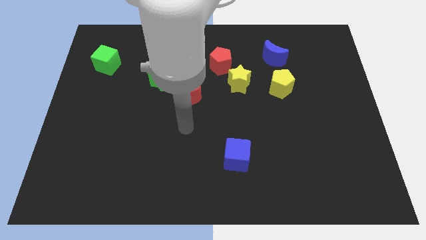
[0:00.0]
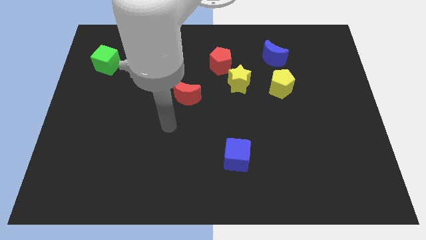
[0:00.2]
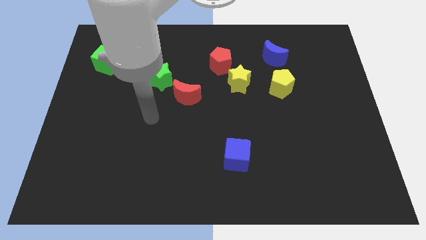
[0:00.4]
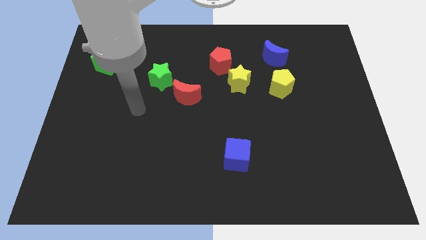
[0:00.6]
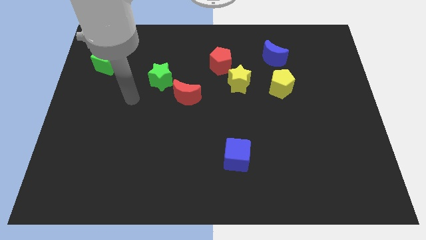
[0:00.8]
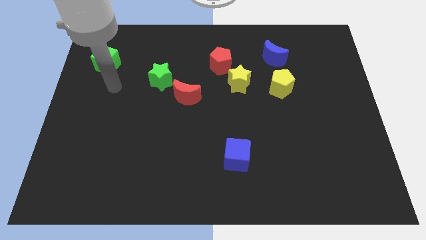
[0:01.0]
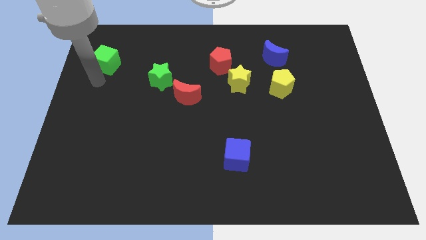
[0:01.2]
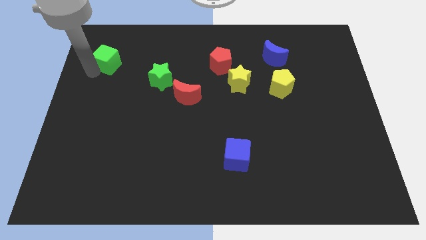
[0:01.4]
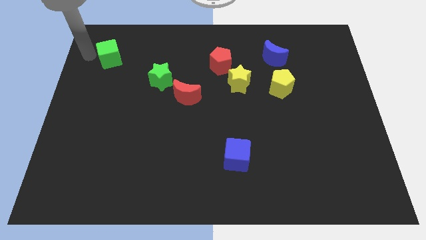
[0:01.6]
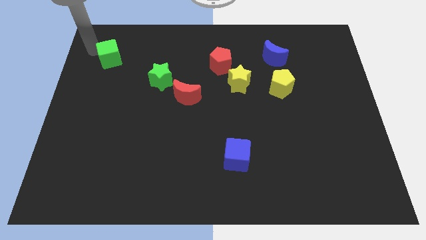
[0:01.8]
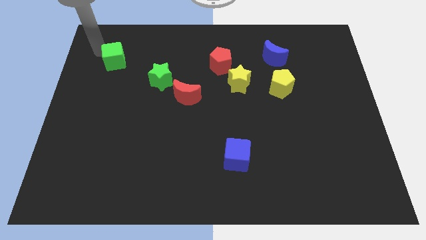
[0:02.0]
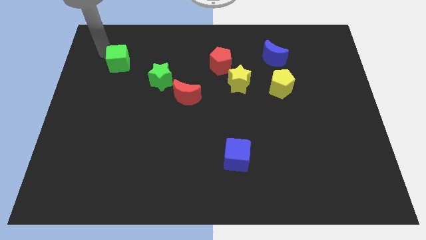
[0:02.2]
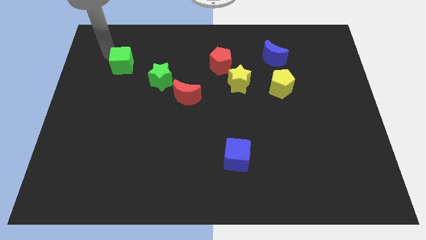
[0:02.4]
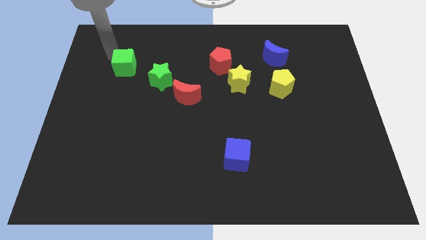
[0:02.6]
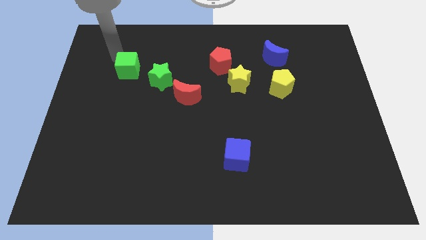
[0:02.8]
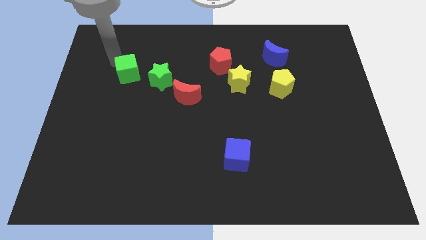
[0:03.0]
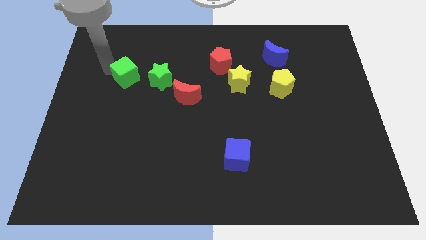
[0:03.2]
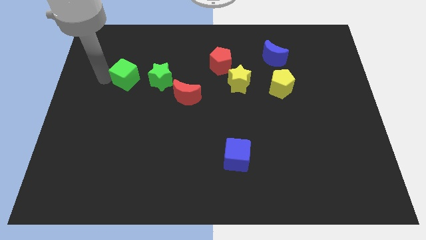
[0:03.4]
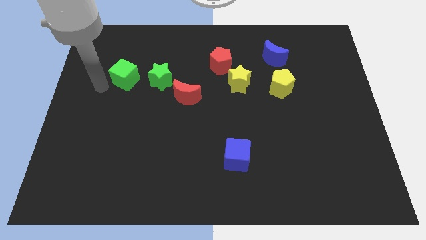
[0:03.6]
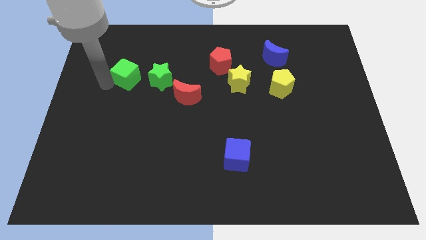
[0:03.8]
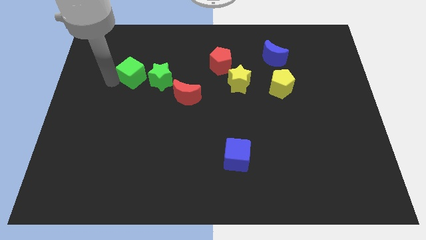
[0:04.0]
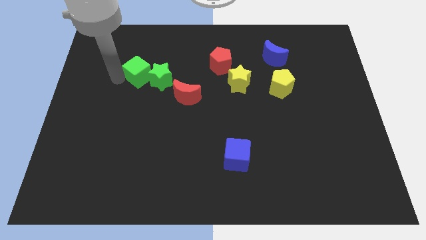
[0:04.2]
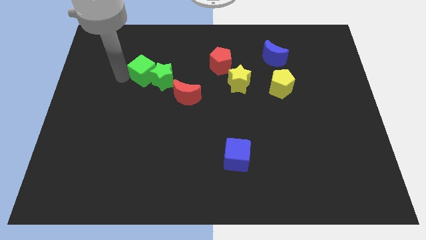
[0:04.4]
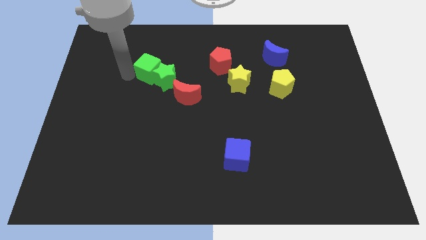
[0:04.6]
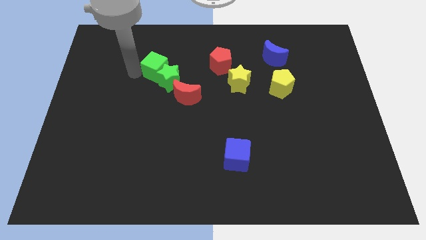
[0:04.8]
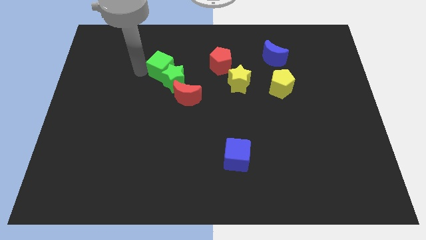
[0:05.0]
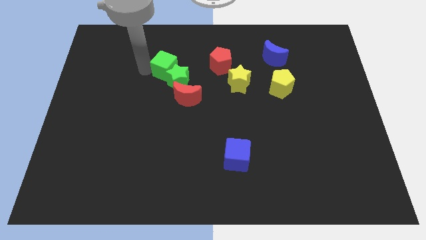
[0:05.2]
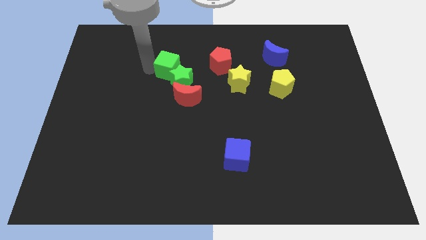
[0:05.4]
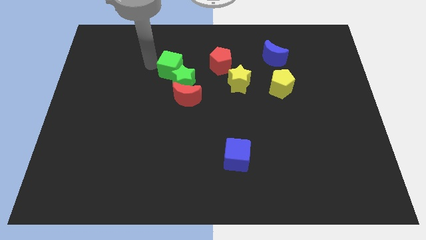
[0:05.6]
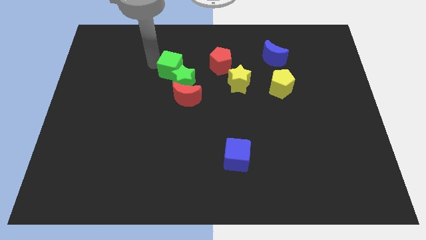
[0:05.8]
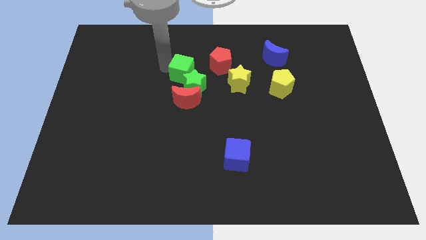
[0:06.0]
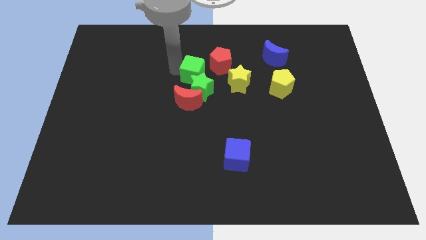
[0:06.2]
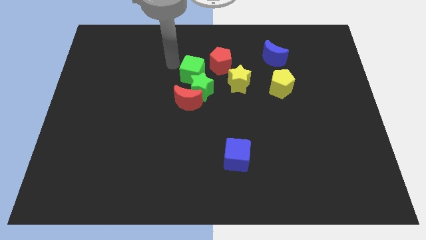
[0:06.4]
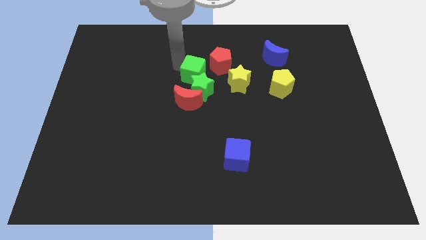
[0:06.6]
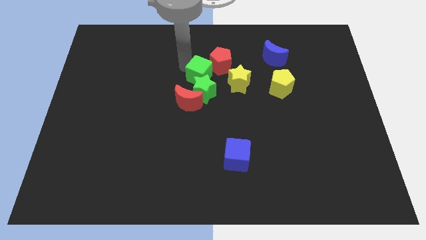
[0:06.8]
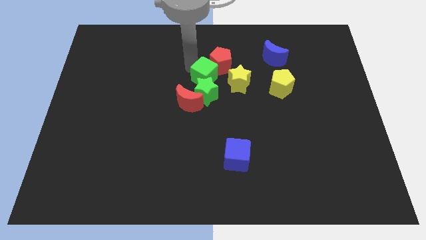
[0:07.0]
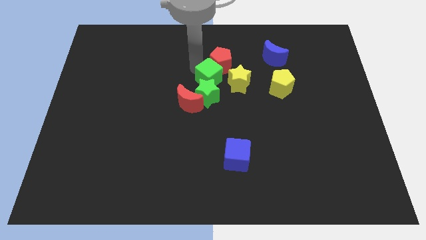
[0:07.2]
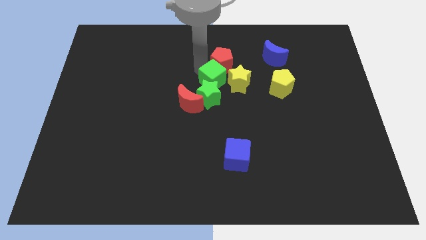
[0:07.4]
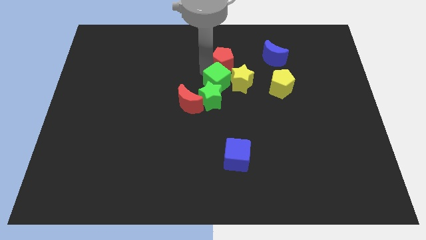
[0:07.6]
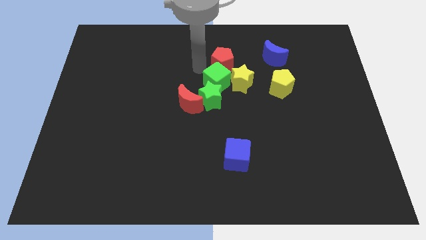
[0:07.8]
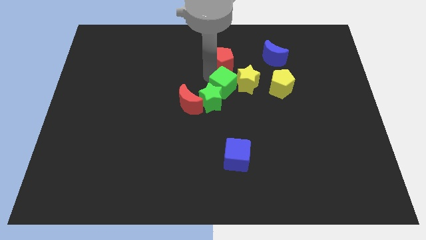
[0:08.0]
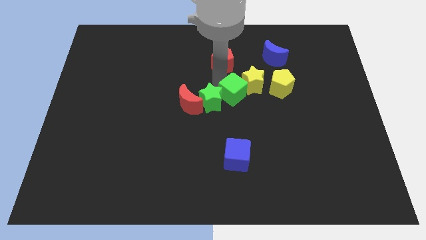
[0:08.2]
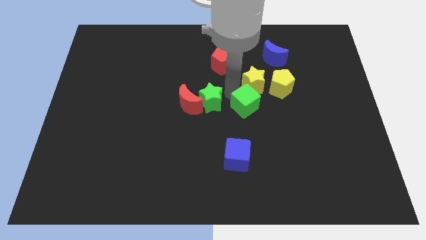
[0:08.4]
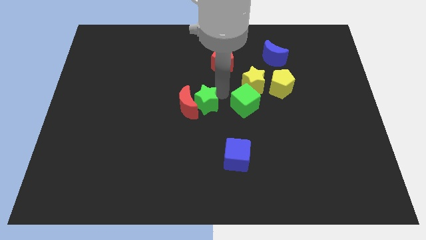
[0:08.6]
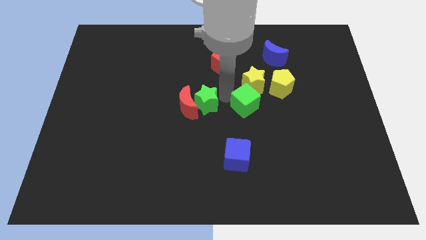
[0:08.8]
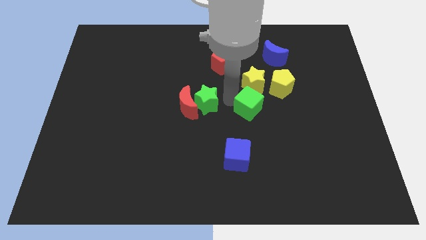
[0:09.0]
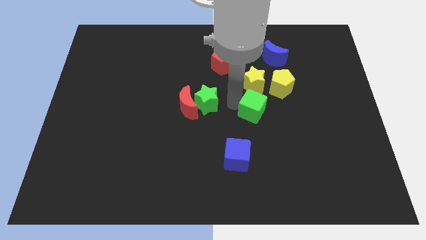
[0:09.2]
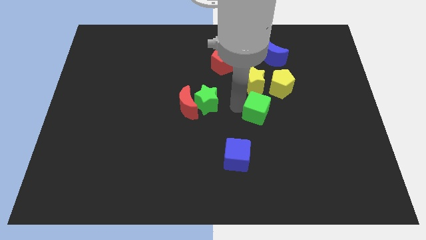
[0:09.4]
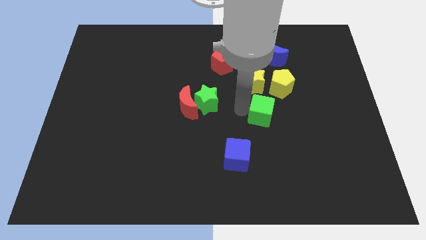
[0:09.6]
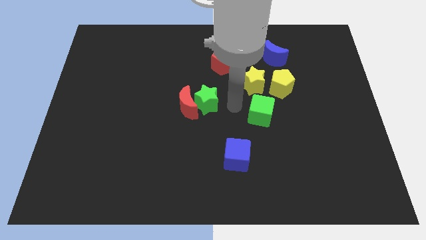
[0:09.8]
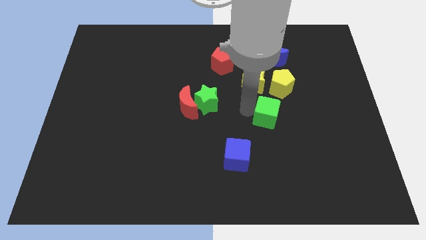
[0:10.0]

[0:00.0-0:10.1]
put the green cube to the bottom of the yellow pentagon

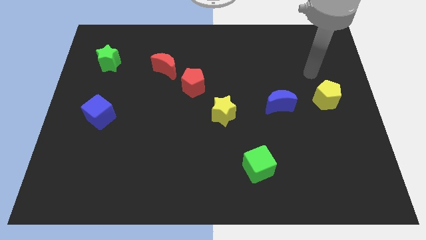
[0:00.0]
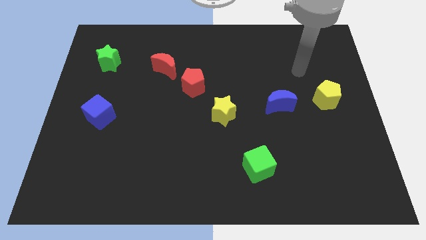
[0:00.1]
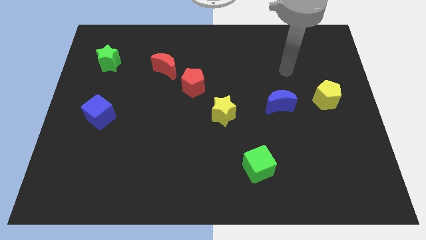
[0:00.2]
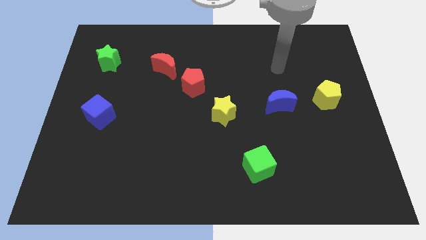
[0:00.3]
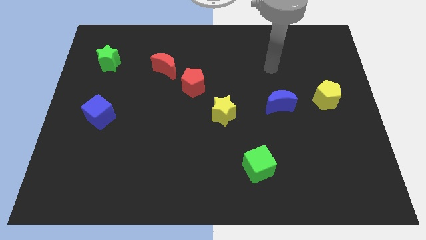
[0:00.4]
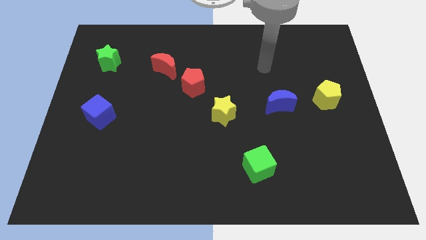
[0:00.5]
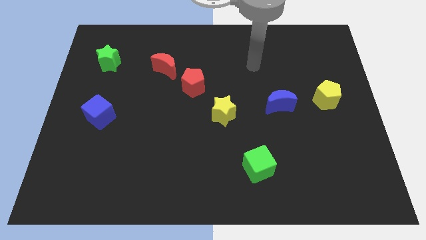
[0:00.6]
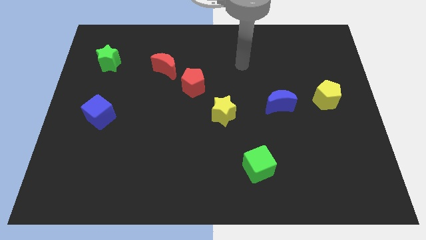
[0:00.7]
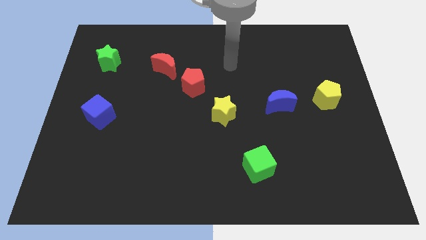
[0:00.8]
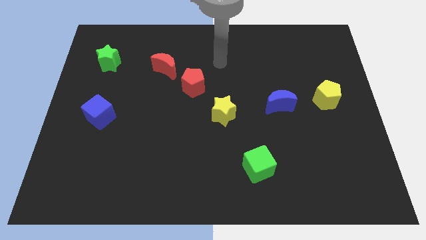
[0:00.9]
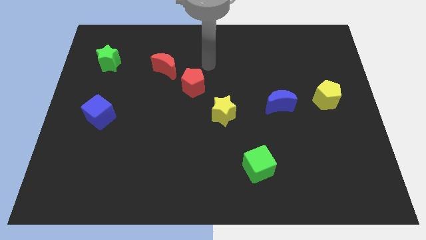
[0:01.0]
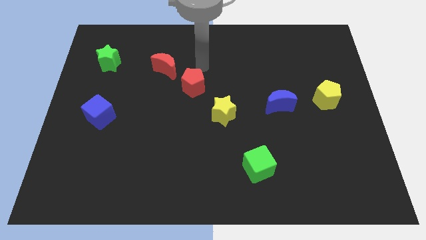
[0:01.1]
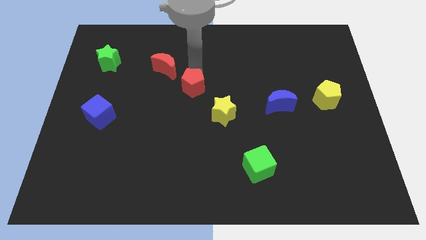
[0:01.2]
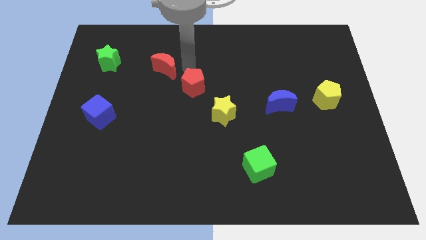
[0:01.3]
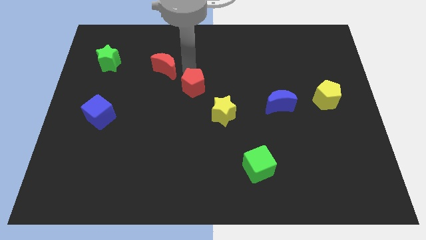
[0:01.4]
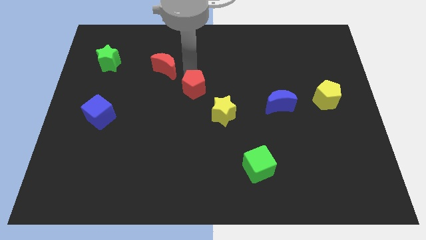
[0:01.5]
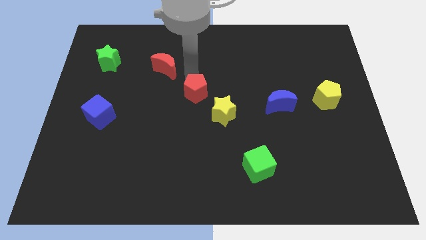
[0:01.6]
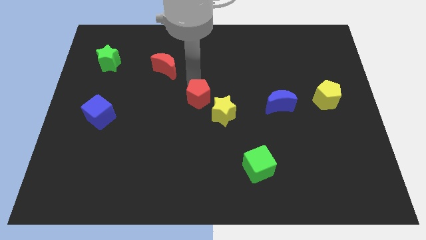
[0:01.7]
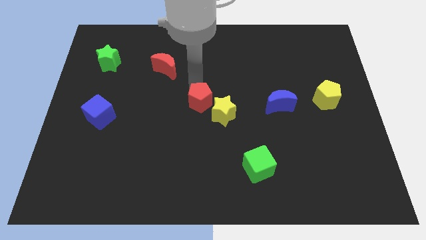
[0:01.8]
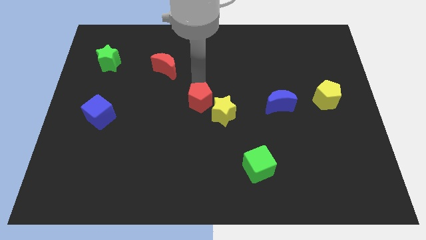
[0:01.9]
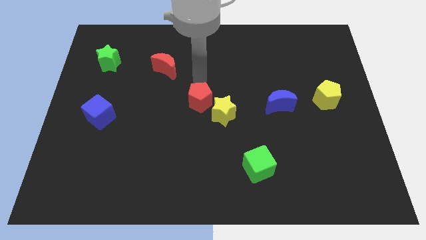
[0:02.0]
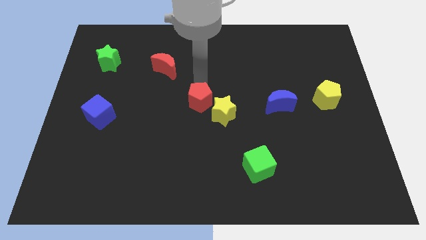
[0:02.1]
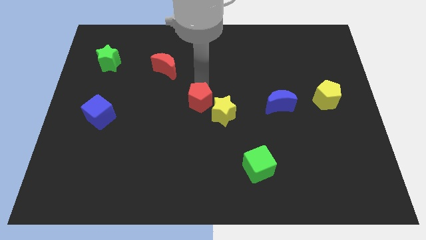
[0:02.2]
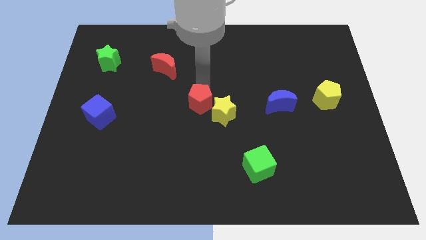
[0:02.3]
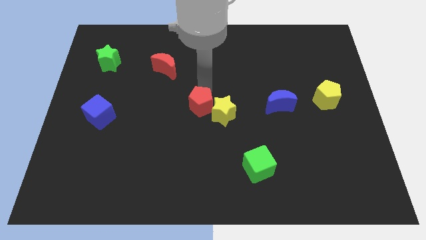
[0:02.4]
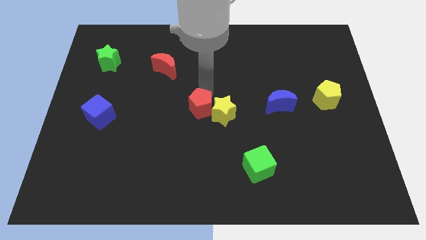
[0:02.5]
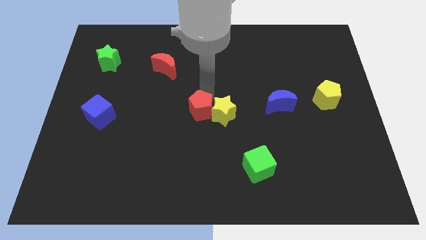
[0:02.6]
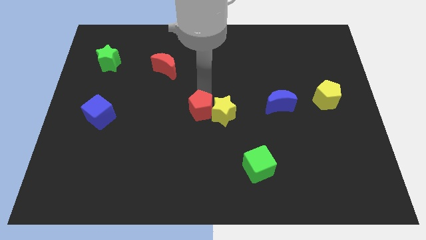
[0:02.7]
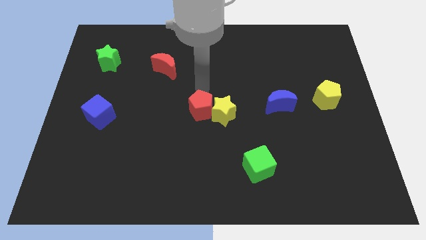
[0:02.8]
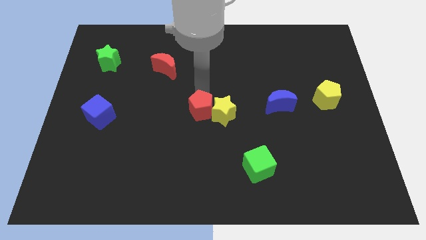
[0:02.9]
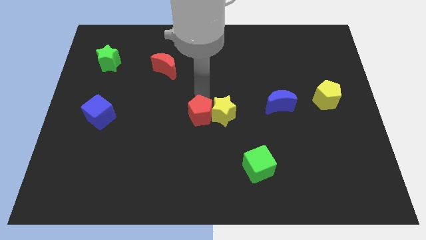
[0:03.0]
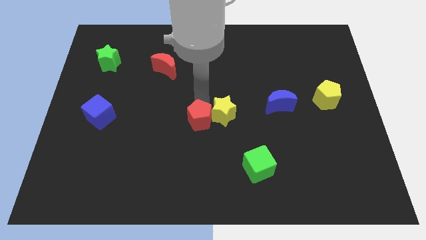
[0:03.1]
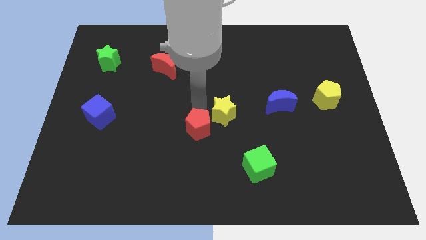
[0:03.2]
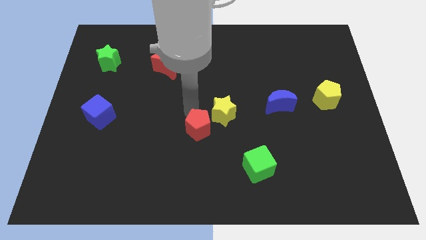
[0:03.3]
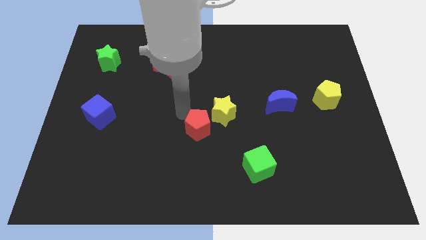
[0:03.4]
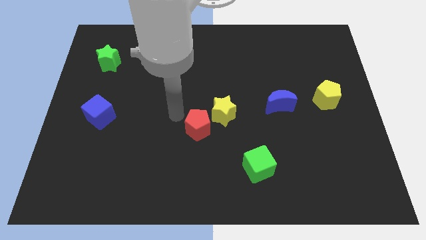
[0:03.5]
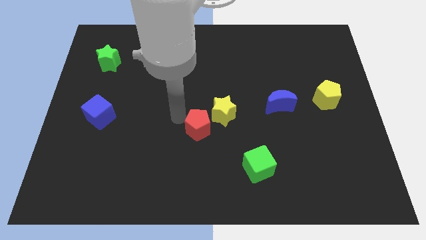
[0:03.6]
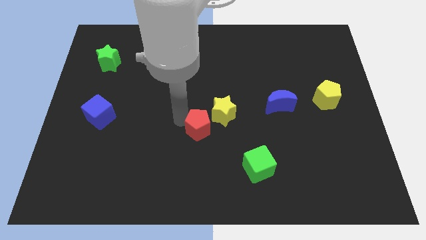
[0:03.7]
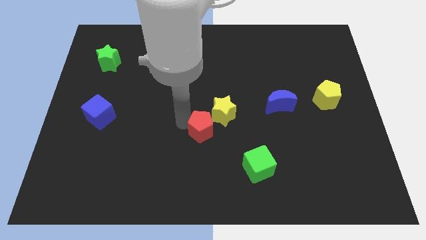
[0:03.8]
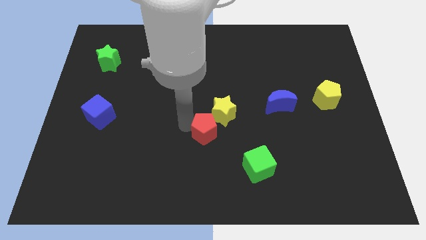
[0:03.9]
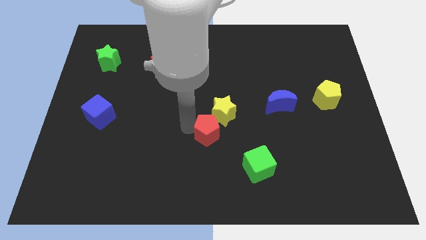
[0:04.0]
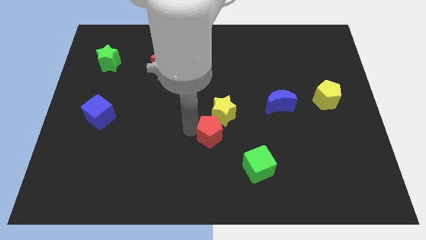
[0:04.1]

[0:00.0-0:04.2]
push the red pentagon diagonally up and to the left of the green cube
